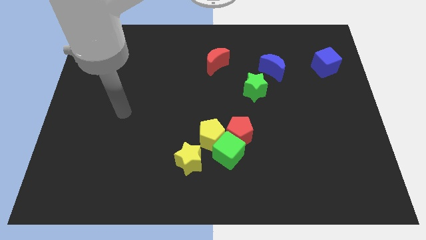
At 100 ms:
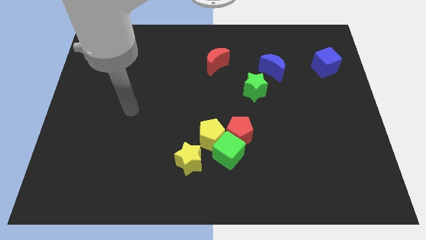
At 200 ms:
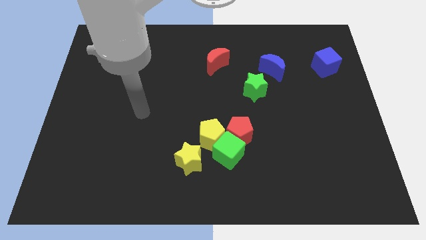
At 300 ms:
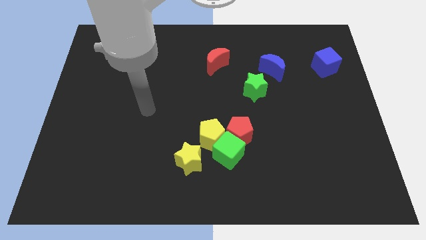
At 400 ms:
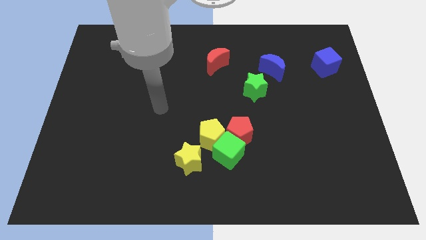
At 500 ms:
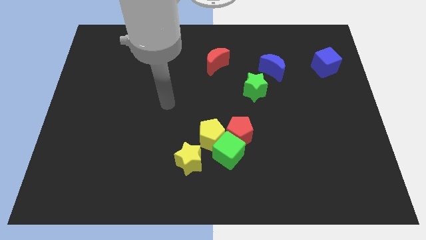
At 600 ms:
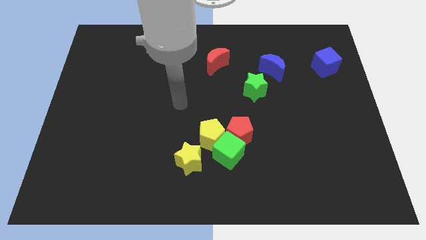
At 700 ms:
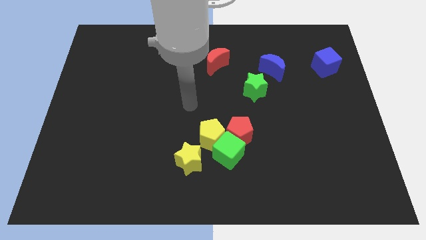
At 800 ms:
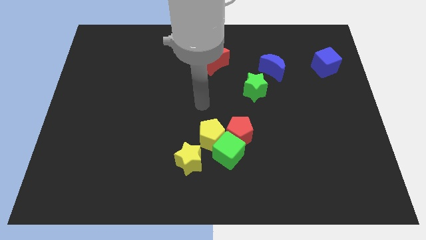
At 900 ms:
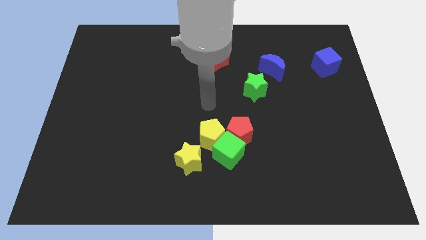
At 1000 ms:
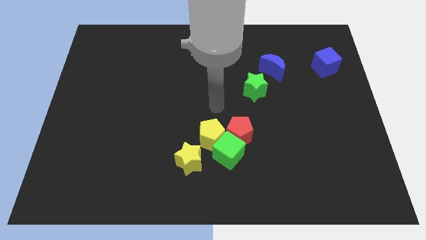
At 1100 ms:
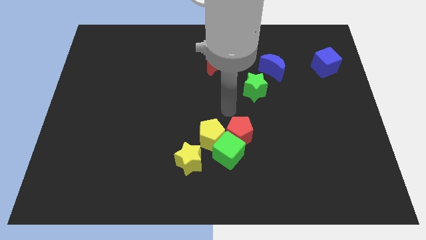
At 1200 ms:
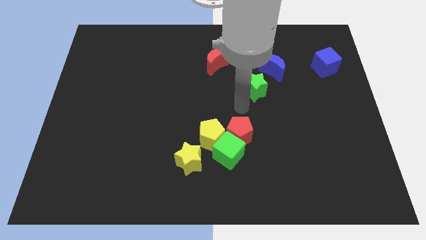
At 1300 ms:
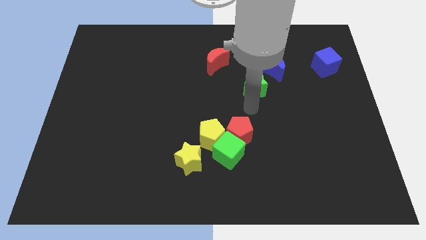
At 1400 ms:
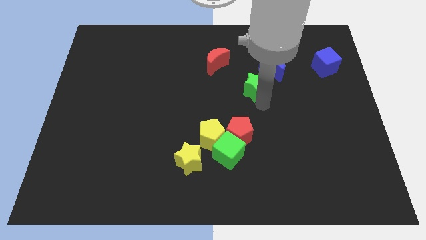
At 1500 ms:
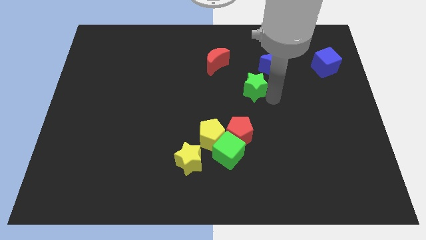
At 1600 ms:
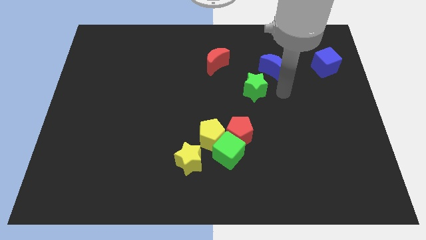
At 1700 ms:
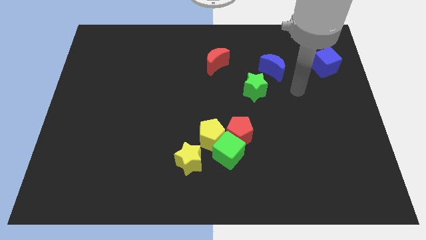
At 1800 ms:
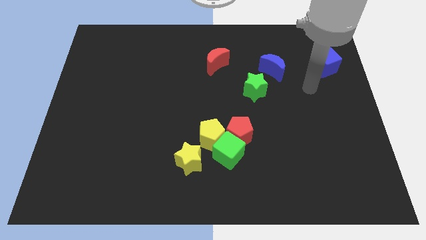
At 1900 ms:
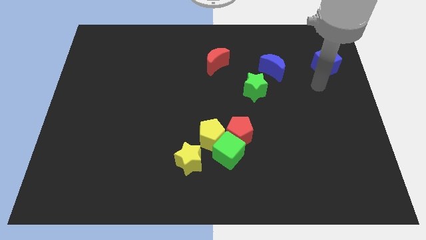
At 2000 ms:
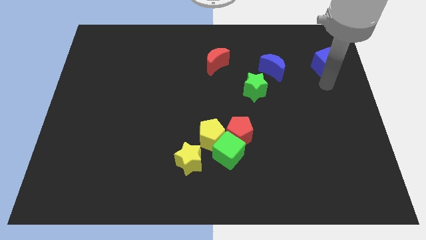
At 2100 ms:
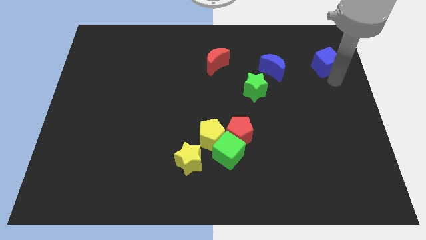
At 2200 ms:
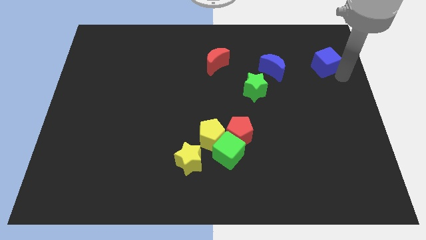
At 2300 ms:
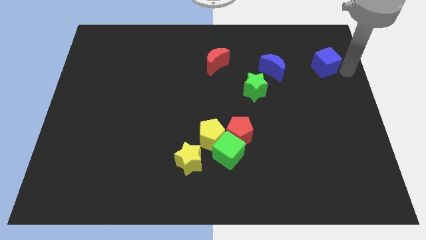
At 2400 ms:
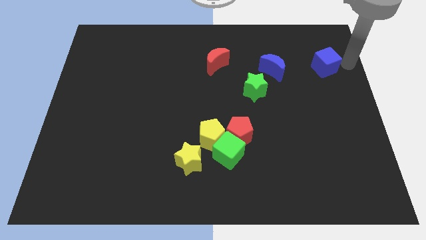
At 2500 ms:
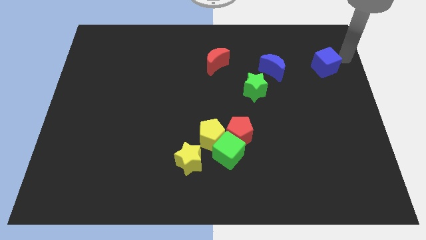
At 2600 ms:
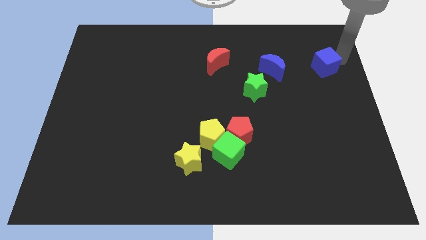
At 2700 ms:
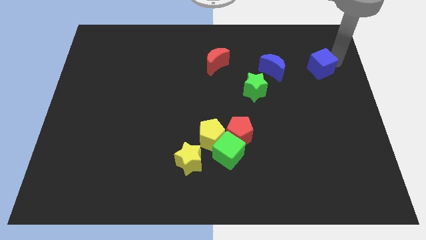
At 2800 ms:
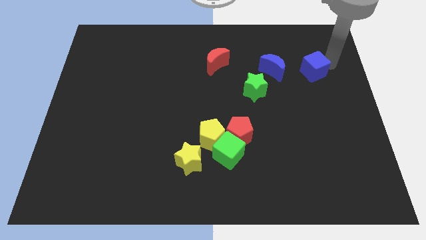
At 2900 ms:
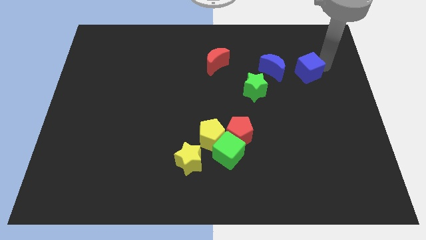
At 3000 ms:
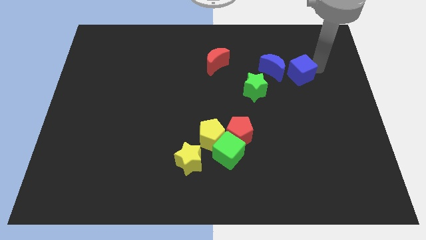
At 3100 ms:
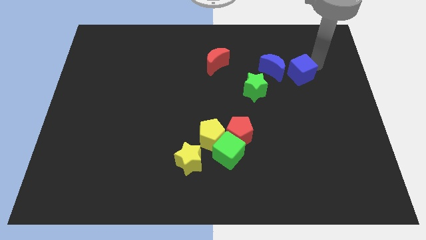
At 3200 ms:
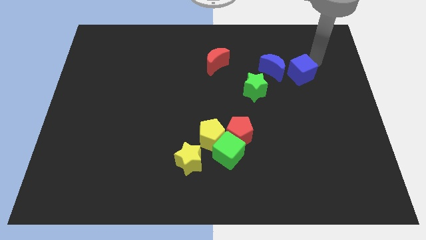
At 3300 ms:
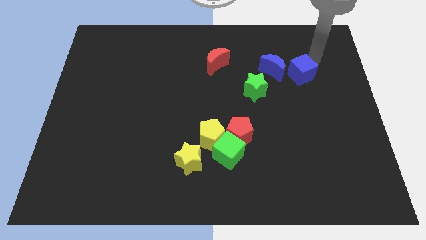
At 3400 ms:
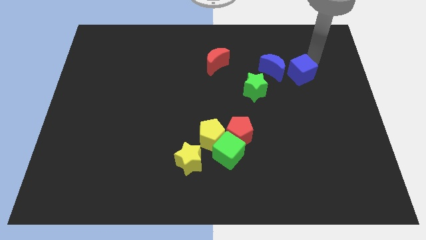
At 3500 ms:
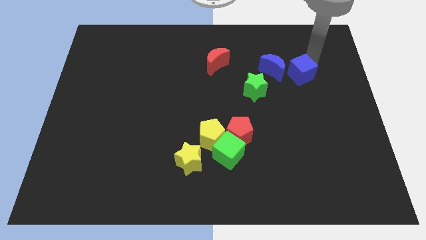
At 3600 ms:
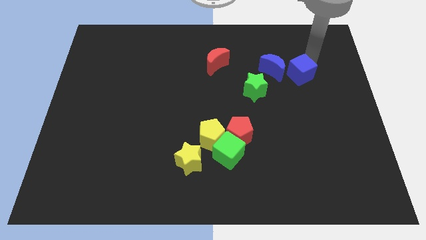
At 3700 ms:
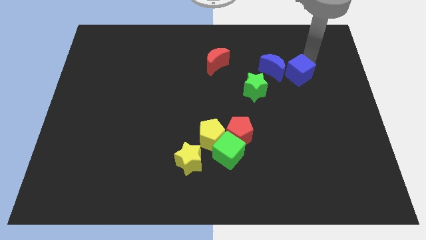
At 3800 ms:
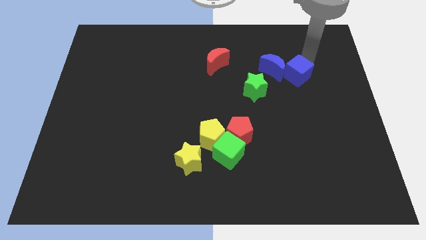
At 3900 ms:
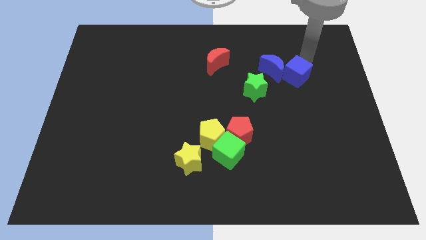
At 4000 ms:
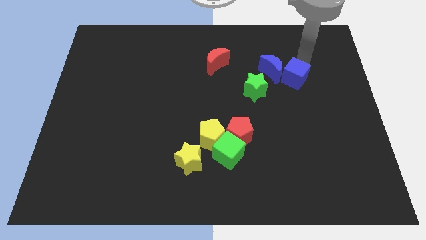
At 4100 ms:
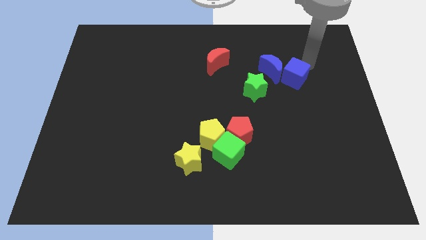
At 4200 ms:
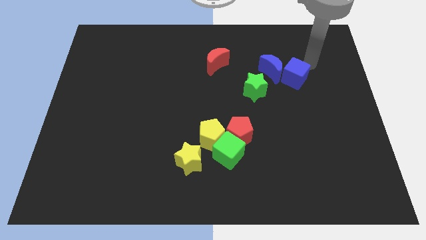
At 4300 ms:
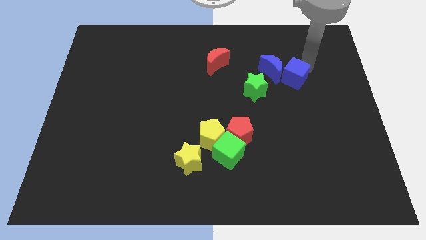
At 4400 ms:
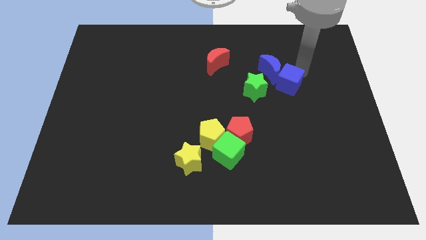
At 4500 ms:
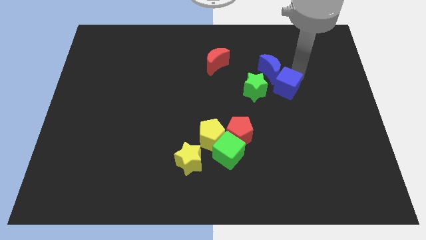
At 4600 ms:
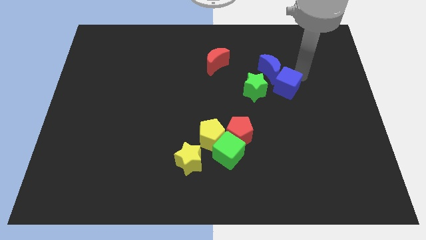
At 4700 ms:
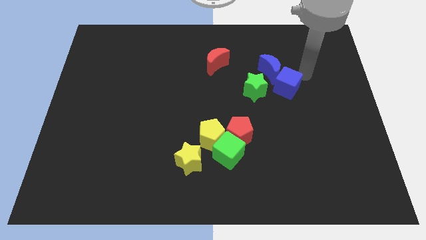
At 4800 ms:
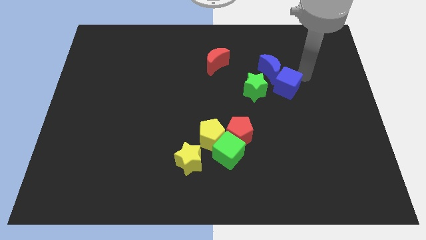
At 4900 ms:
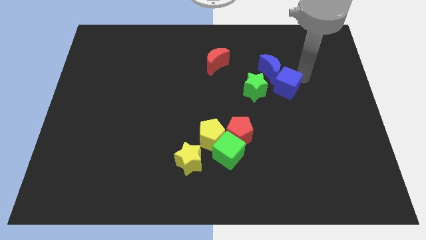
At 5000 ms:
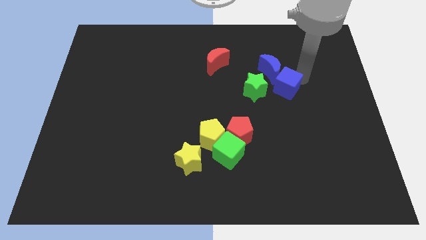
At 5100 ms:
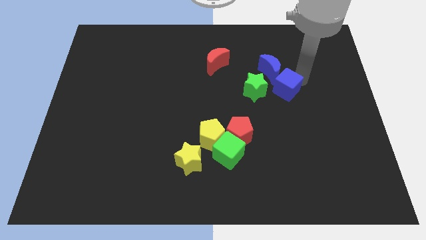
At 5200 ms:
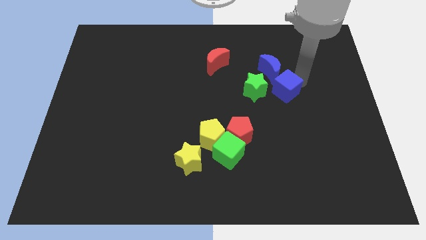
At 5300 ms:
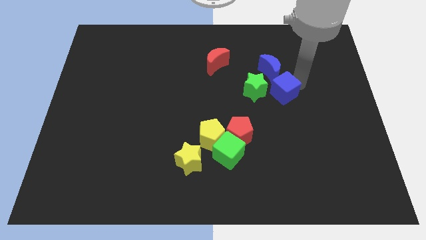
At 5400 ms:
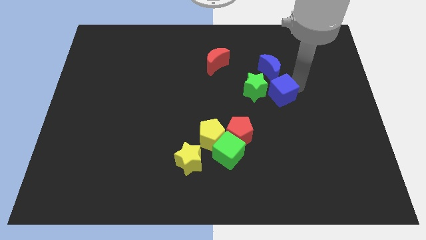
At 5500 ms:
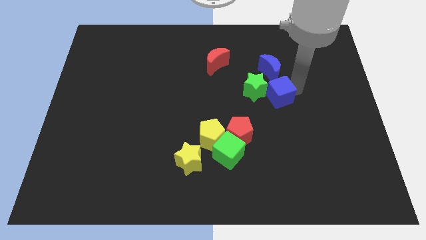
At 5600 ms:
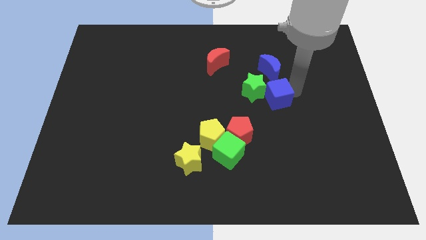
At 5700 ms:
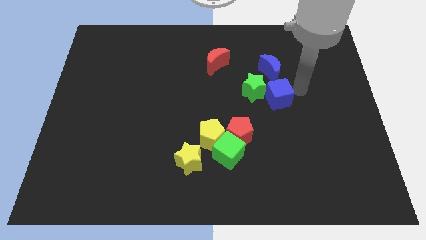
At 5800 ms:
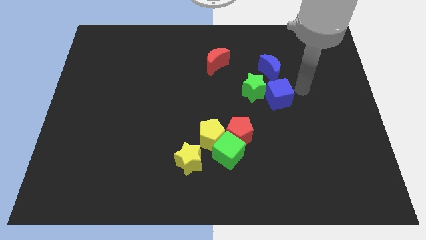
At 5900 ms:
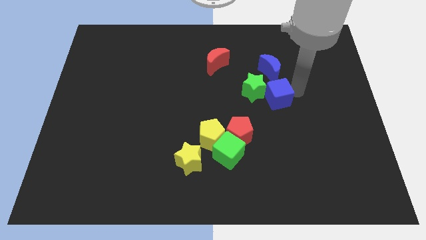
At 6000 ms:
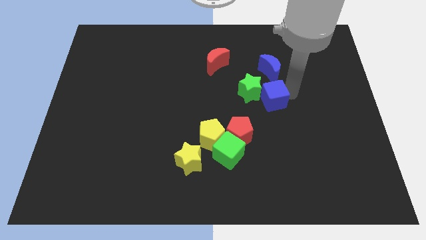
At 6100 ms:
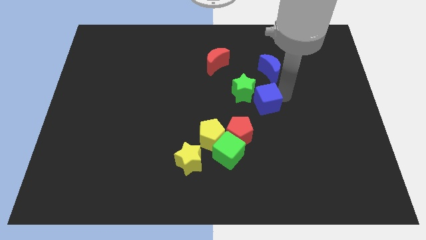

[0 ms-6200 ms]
push the blue cube to the middle of the board

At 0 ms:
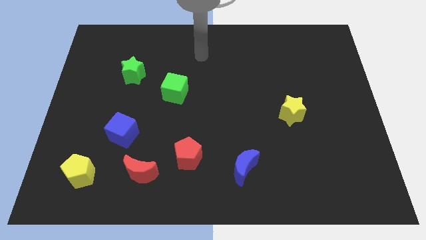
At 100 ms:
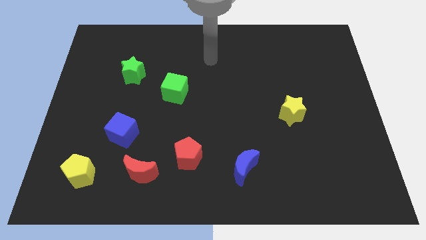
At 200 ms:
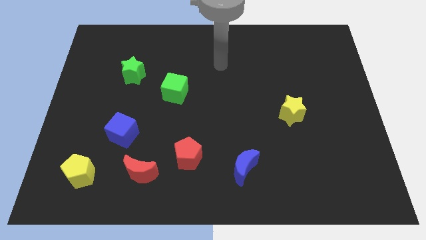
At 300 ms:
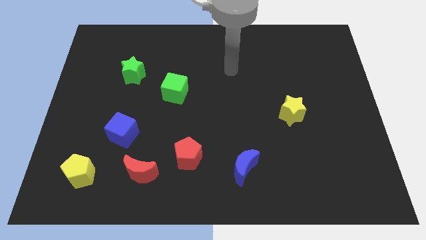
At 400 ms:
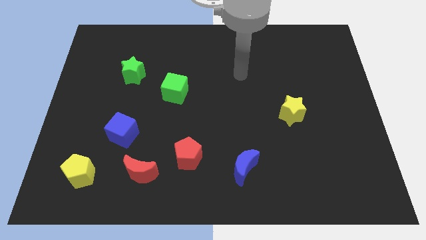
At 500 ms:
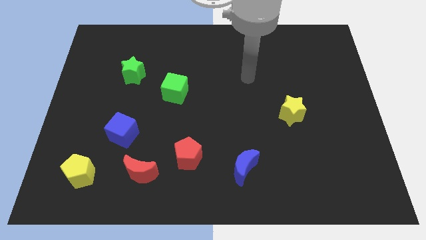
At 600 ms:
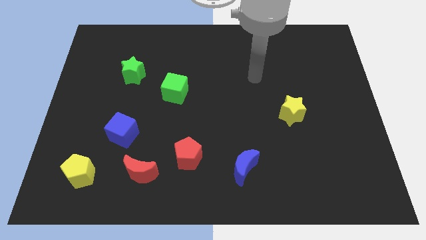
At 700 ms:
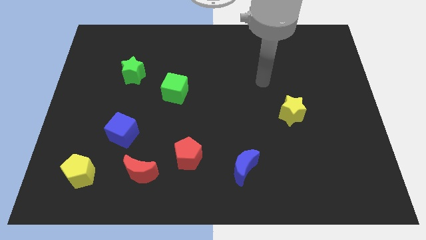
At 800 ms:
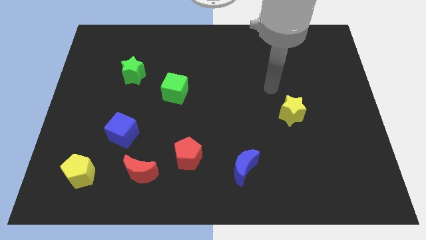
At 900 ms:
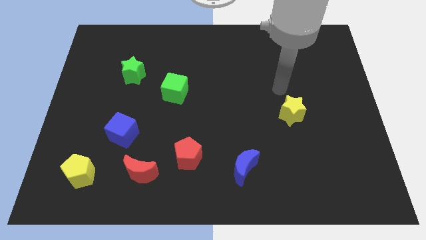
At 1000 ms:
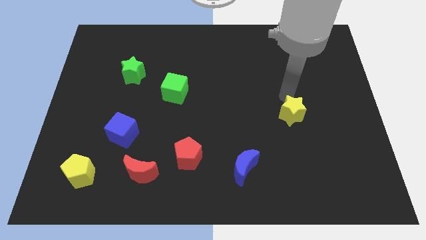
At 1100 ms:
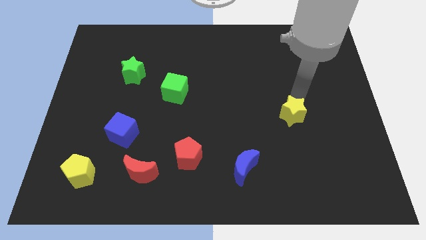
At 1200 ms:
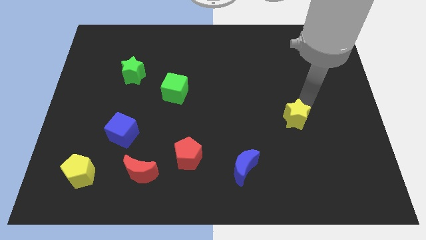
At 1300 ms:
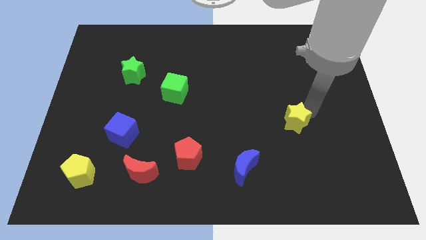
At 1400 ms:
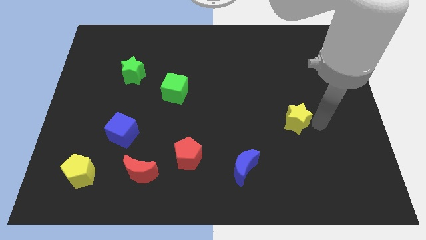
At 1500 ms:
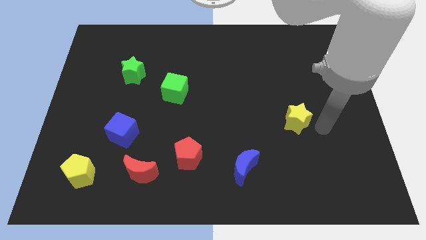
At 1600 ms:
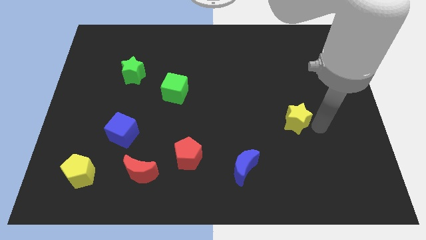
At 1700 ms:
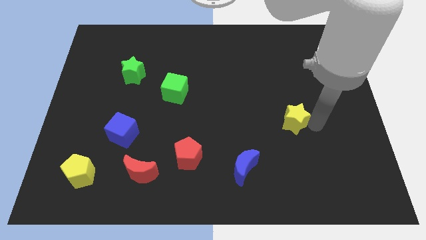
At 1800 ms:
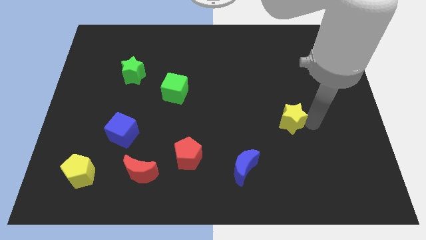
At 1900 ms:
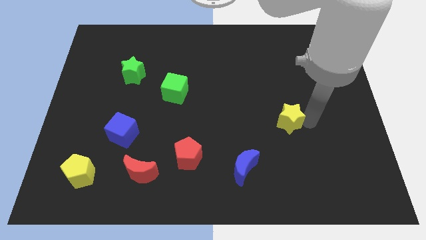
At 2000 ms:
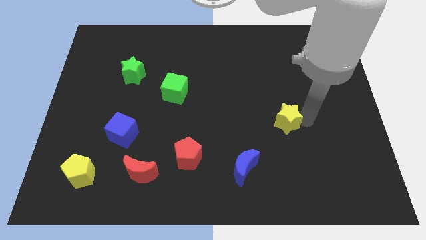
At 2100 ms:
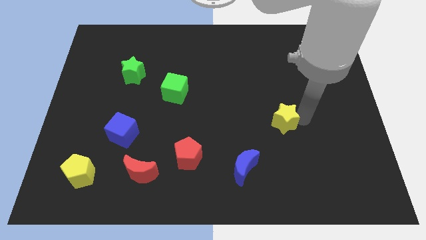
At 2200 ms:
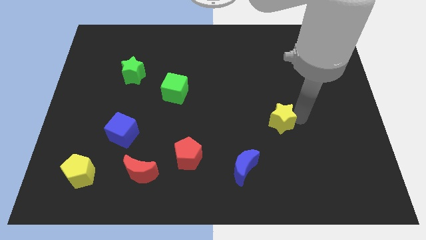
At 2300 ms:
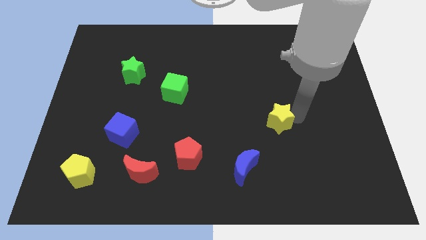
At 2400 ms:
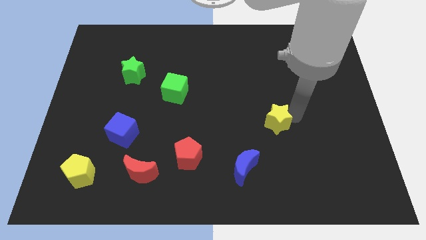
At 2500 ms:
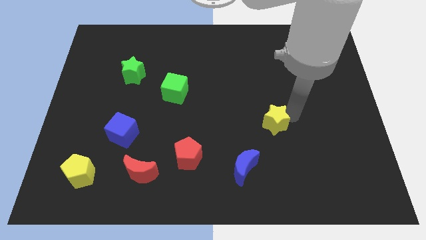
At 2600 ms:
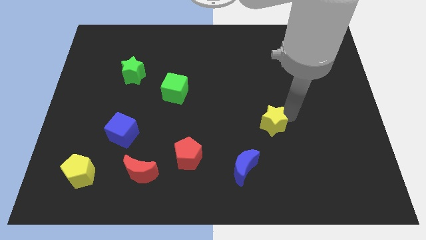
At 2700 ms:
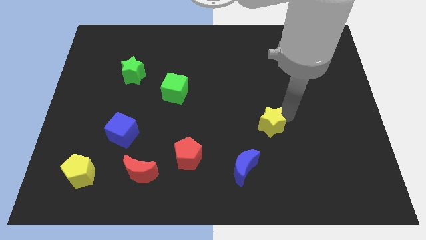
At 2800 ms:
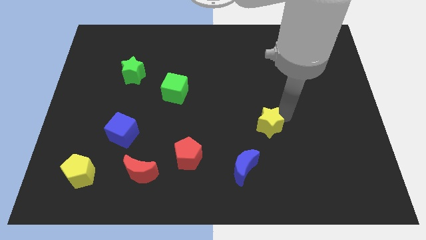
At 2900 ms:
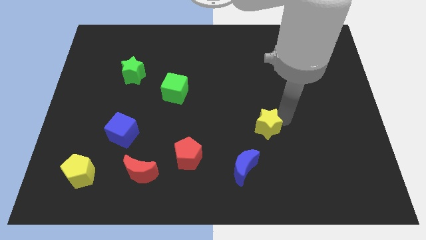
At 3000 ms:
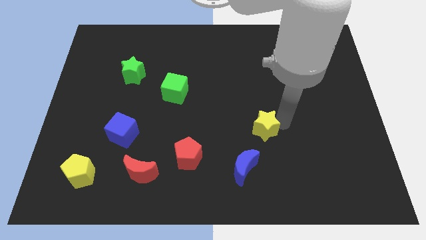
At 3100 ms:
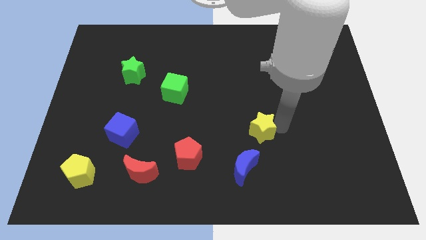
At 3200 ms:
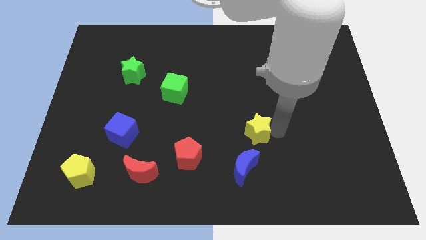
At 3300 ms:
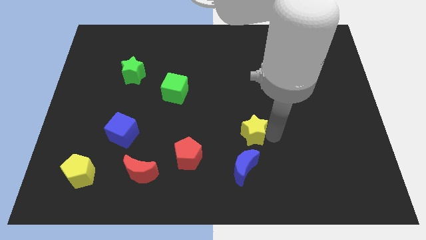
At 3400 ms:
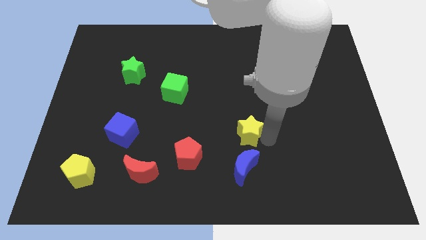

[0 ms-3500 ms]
move the yellow star to the middle
